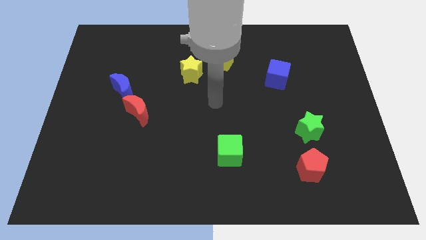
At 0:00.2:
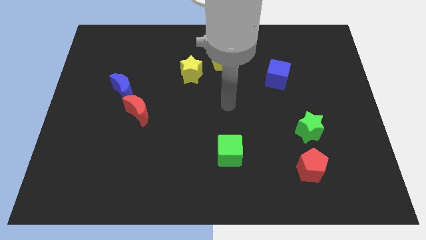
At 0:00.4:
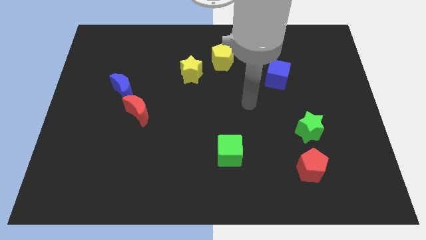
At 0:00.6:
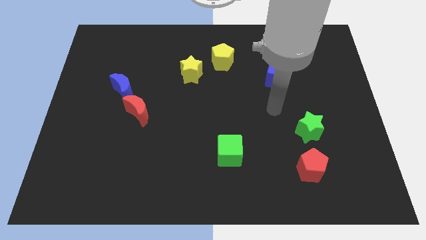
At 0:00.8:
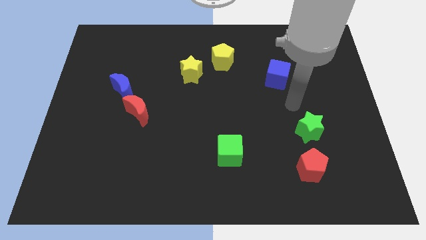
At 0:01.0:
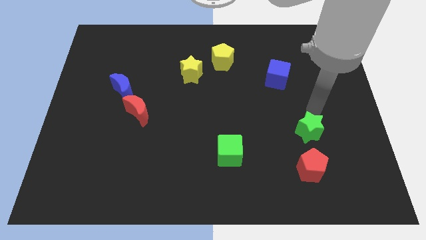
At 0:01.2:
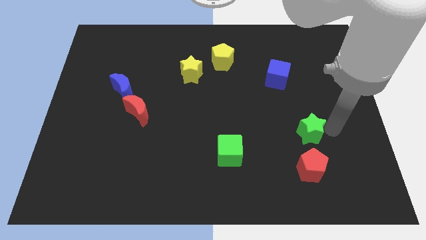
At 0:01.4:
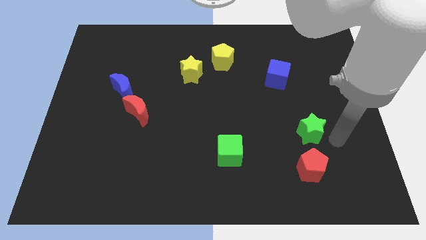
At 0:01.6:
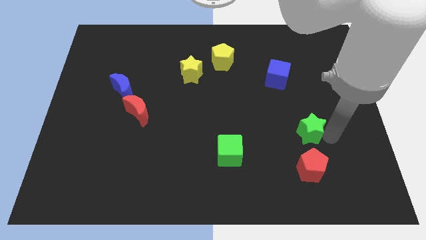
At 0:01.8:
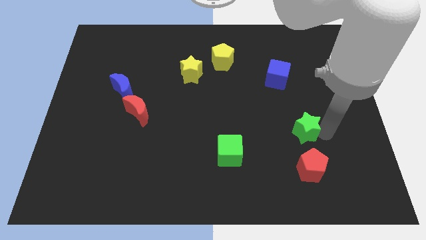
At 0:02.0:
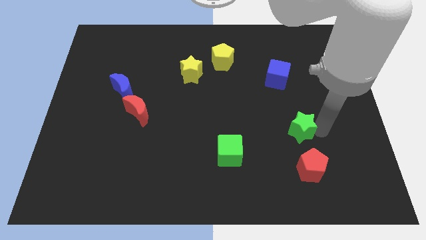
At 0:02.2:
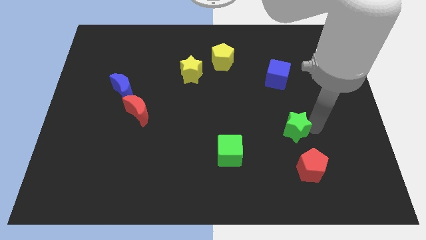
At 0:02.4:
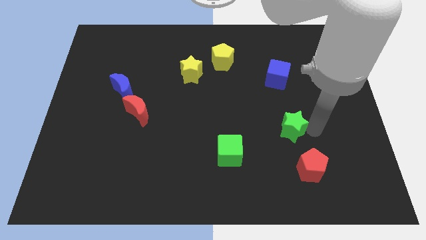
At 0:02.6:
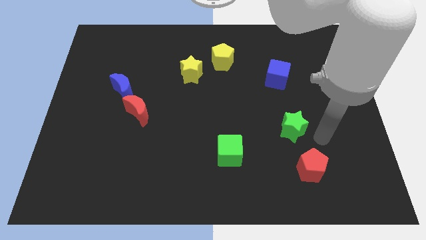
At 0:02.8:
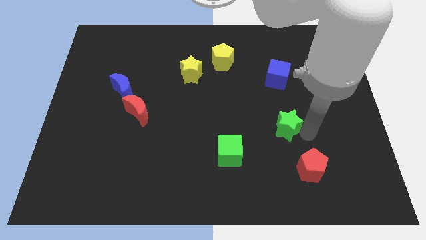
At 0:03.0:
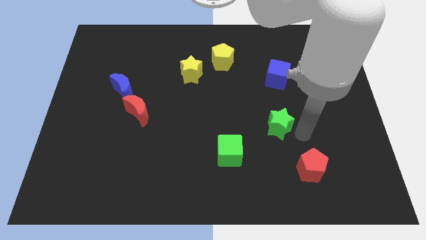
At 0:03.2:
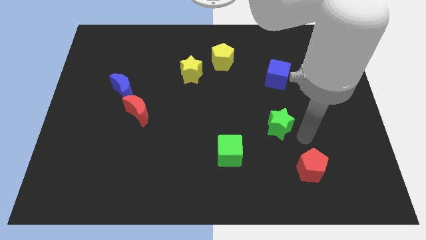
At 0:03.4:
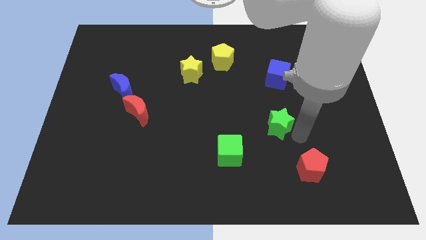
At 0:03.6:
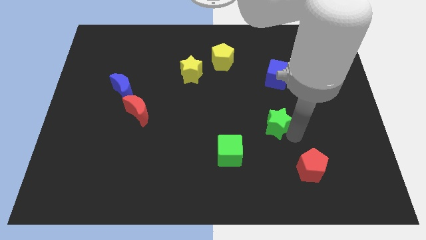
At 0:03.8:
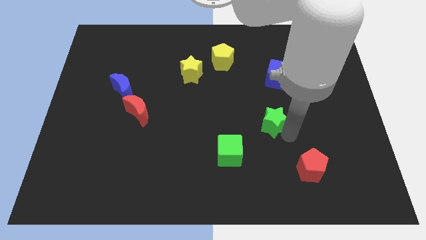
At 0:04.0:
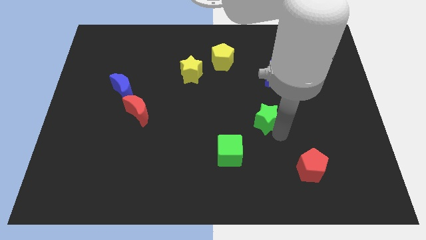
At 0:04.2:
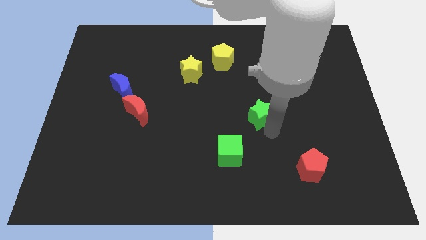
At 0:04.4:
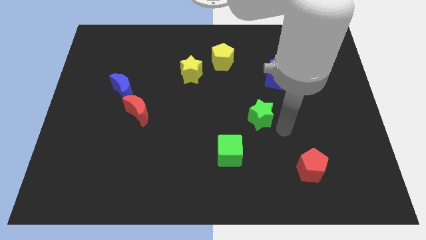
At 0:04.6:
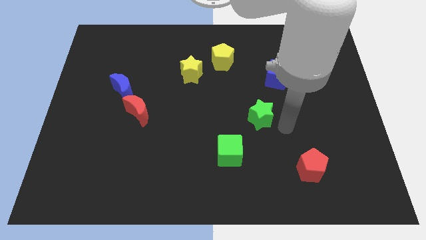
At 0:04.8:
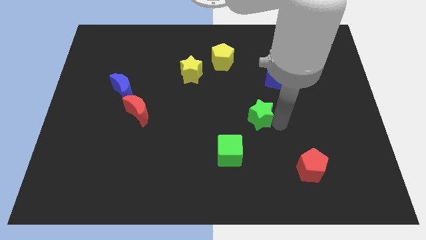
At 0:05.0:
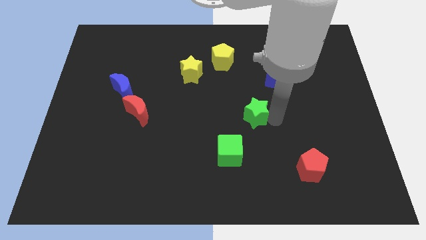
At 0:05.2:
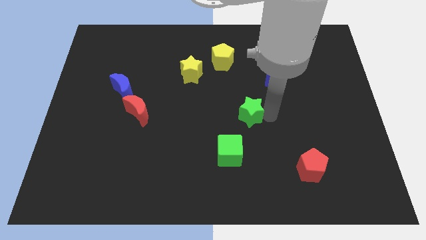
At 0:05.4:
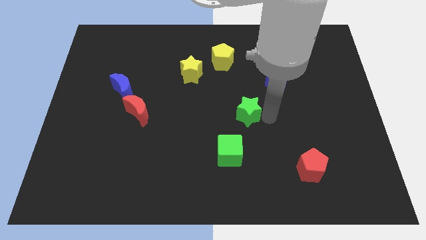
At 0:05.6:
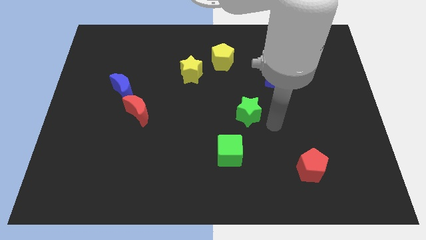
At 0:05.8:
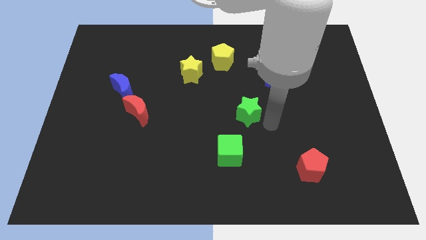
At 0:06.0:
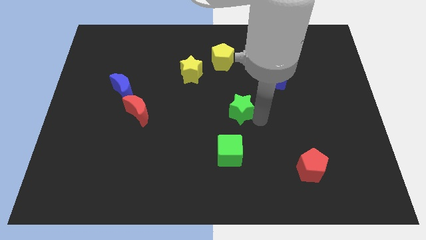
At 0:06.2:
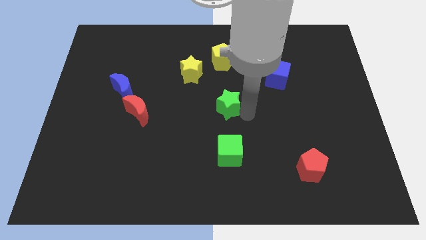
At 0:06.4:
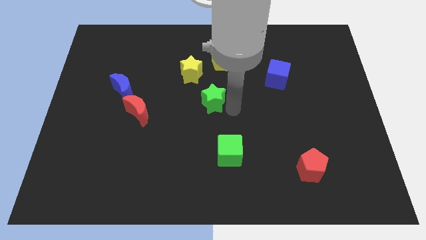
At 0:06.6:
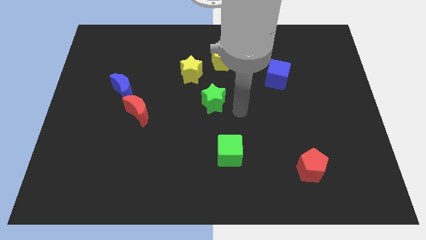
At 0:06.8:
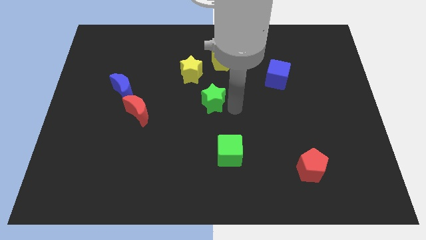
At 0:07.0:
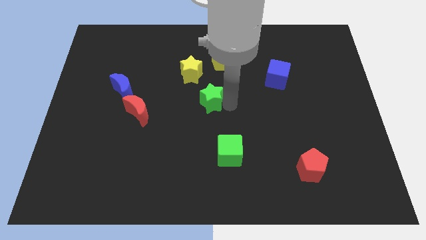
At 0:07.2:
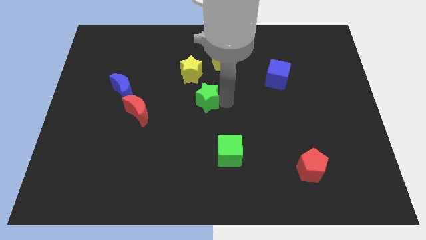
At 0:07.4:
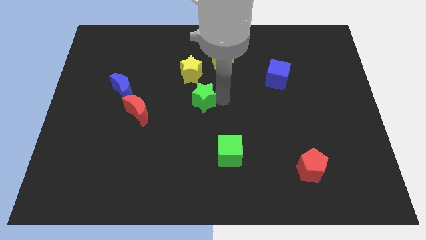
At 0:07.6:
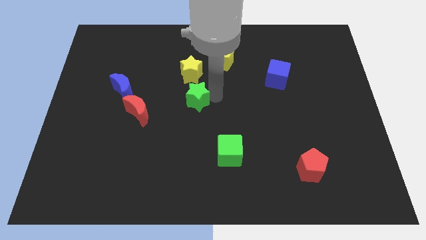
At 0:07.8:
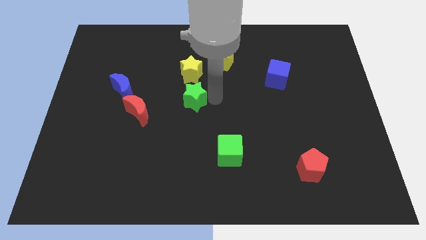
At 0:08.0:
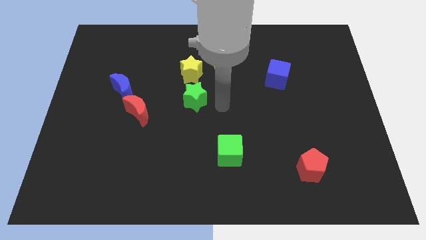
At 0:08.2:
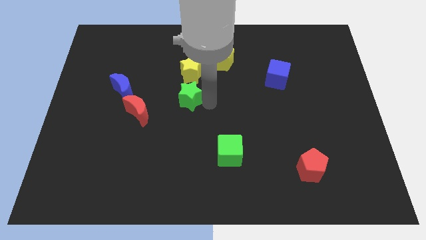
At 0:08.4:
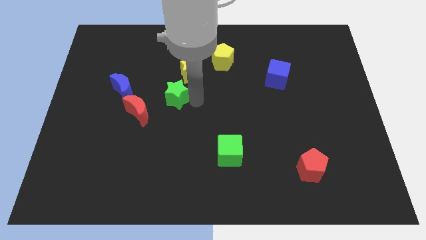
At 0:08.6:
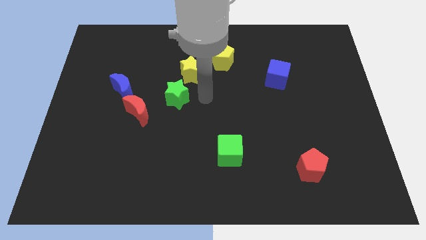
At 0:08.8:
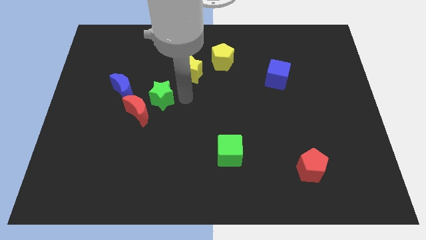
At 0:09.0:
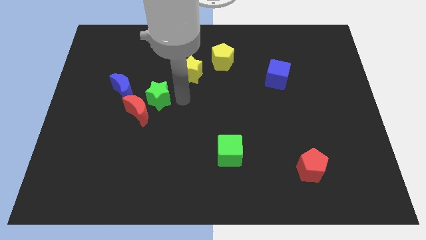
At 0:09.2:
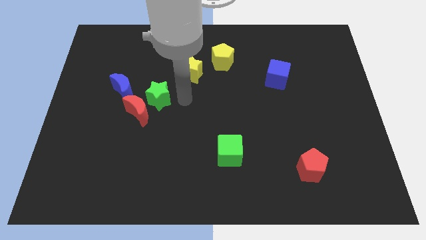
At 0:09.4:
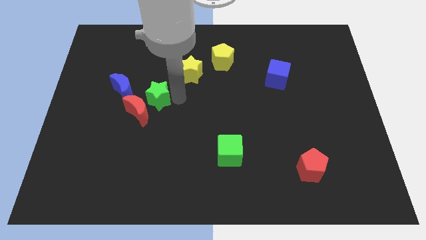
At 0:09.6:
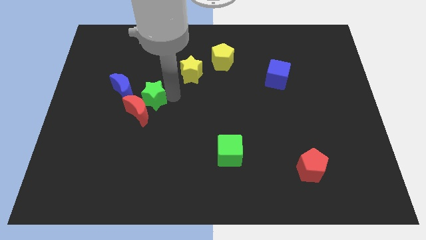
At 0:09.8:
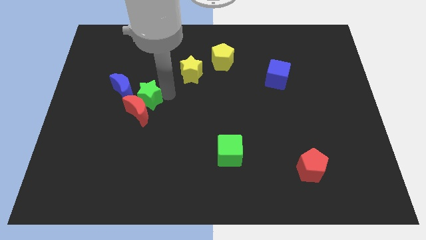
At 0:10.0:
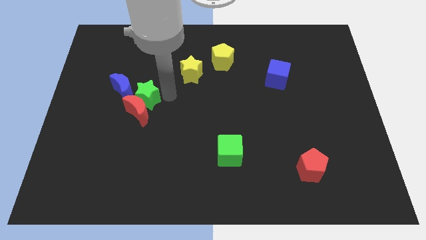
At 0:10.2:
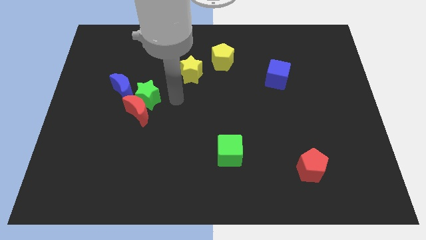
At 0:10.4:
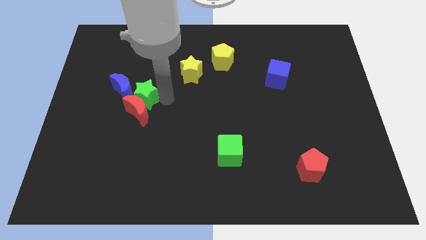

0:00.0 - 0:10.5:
move the green star close to the blue moon

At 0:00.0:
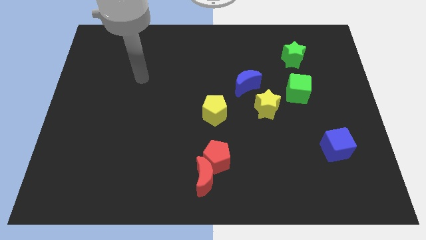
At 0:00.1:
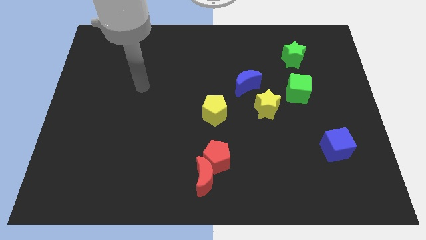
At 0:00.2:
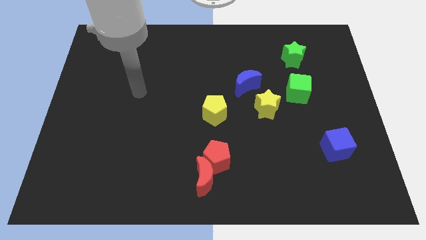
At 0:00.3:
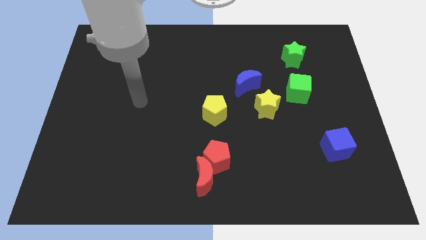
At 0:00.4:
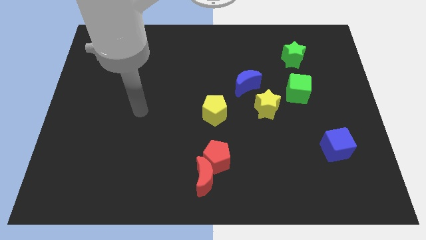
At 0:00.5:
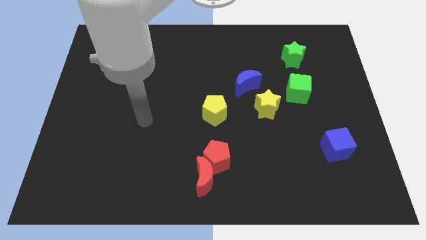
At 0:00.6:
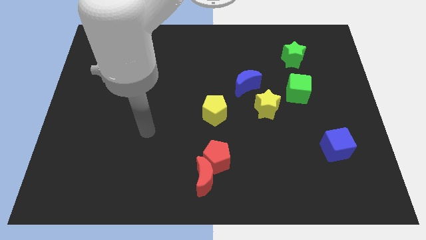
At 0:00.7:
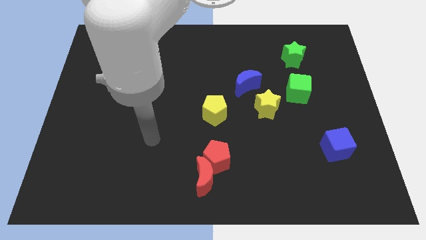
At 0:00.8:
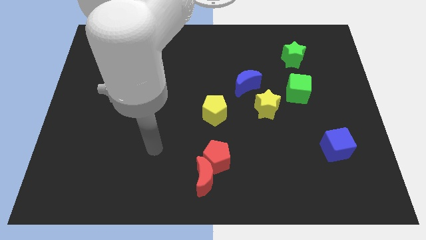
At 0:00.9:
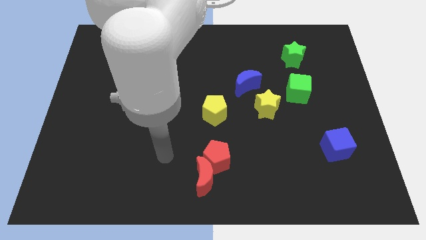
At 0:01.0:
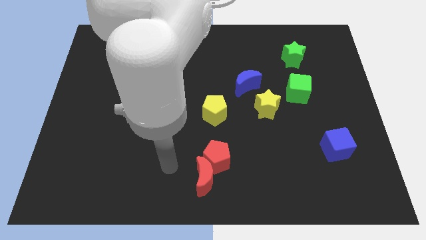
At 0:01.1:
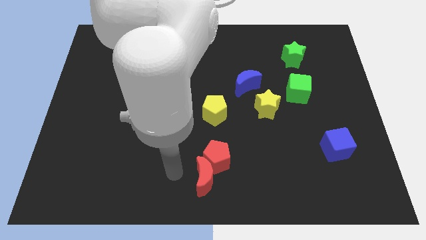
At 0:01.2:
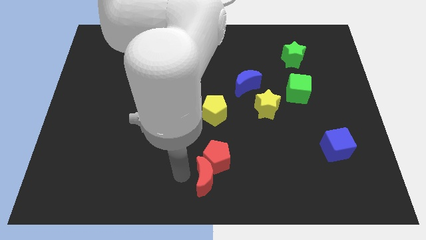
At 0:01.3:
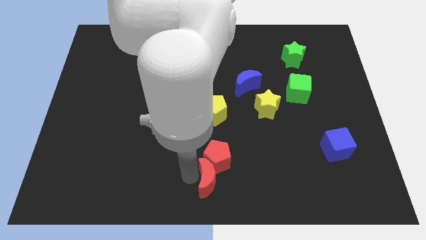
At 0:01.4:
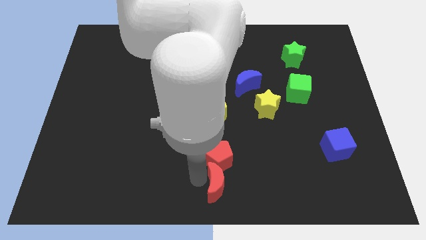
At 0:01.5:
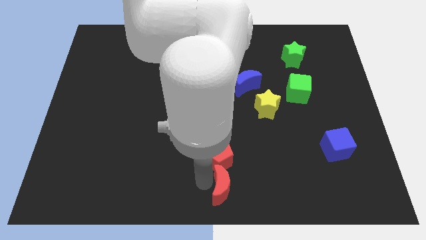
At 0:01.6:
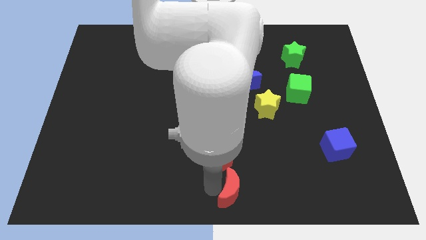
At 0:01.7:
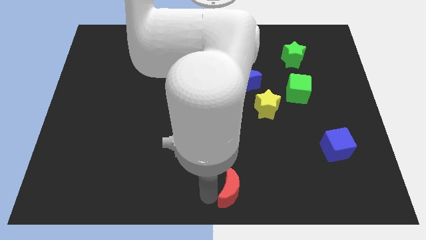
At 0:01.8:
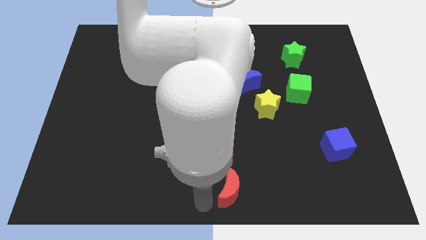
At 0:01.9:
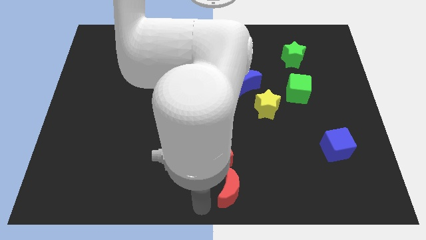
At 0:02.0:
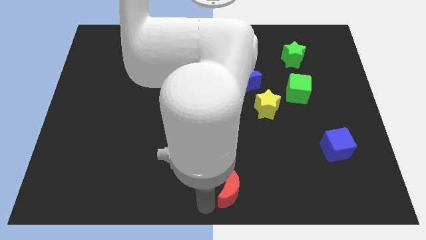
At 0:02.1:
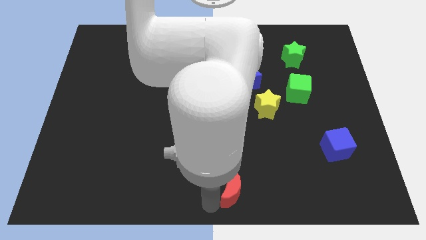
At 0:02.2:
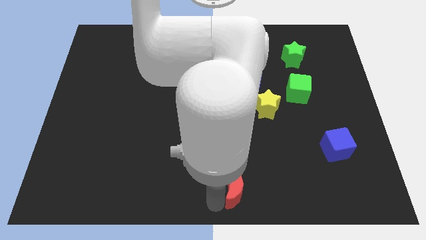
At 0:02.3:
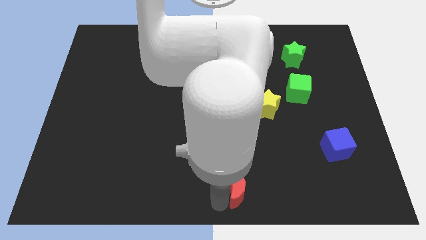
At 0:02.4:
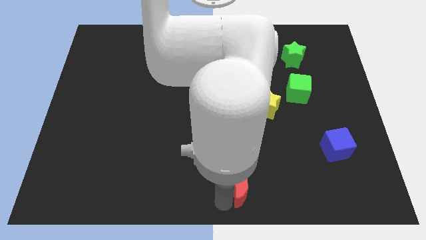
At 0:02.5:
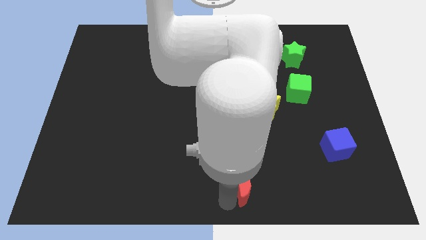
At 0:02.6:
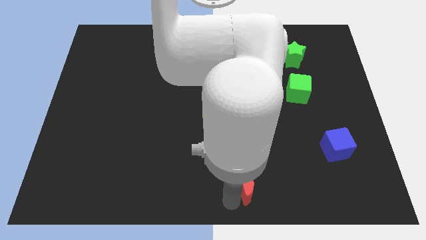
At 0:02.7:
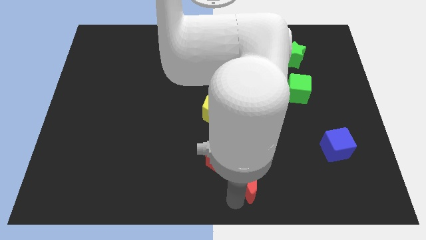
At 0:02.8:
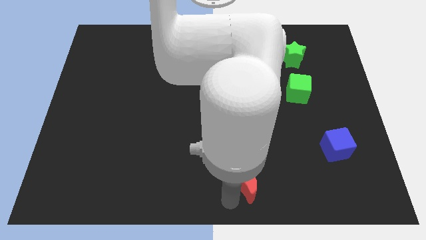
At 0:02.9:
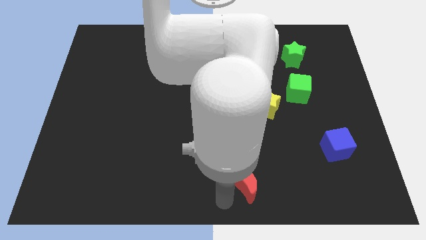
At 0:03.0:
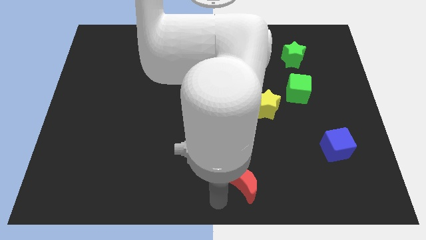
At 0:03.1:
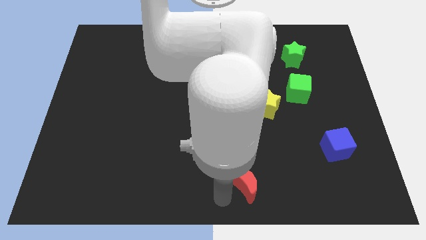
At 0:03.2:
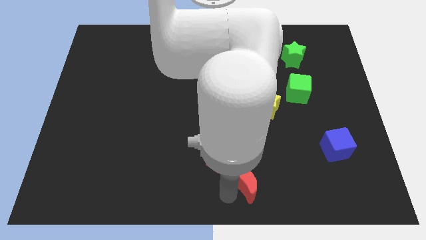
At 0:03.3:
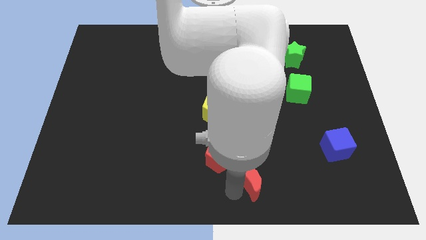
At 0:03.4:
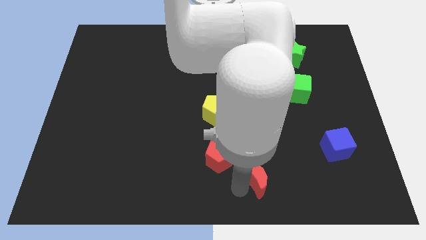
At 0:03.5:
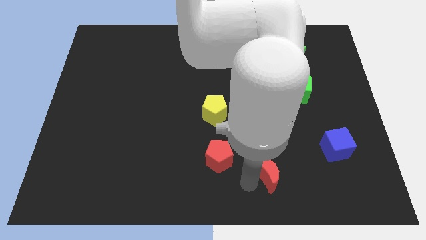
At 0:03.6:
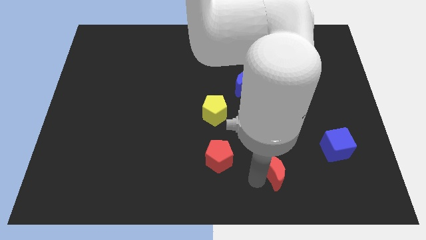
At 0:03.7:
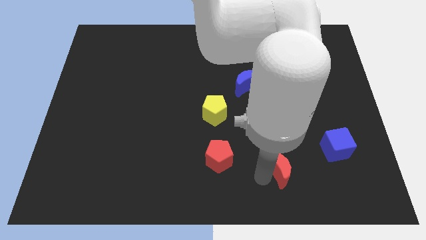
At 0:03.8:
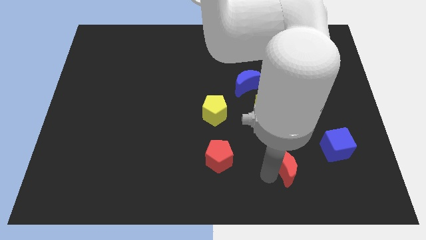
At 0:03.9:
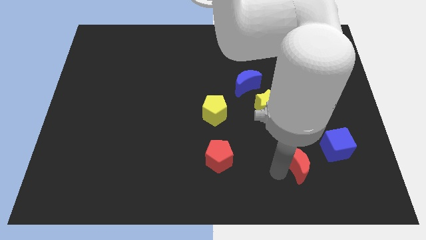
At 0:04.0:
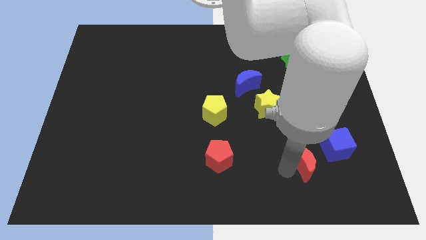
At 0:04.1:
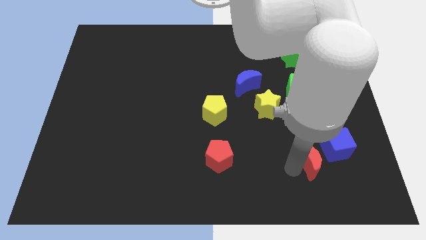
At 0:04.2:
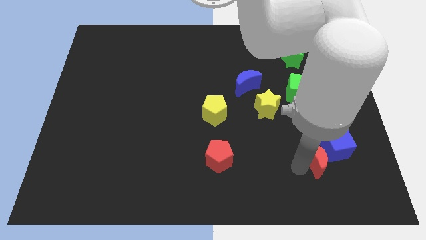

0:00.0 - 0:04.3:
move the red moon next to the blue cube
